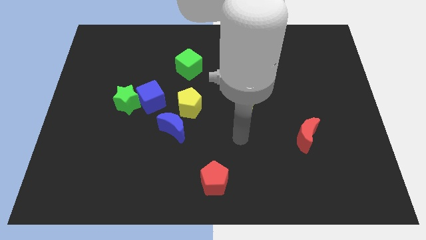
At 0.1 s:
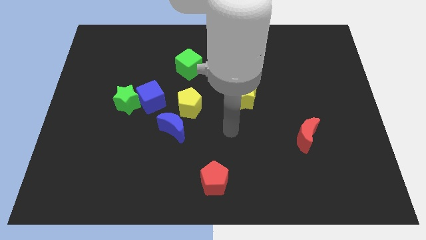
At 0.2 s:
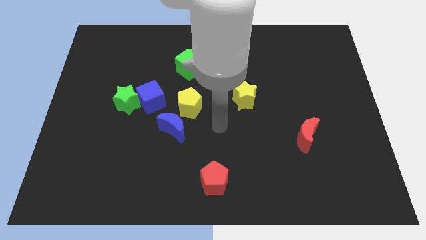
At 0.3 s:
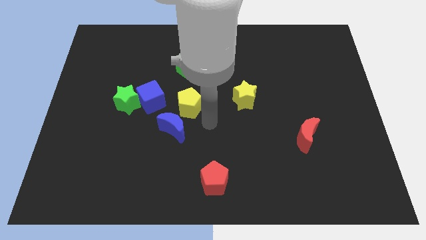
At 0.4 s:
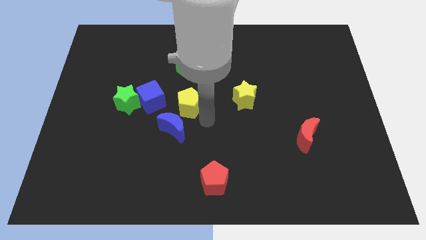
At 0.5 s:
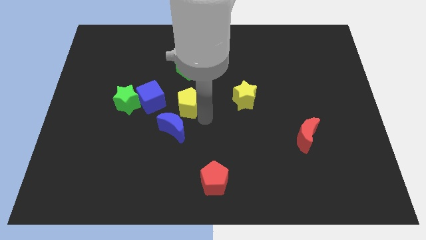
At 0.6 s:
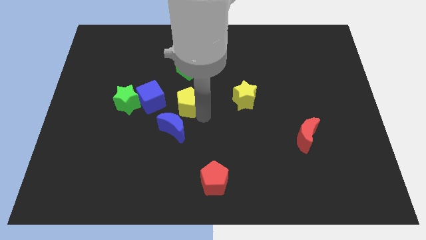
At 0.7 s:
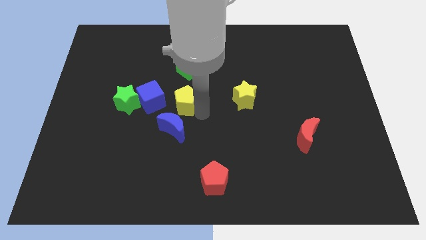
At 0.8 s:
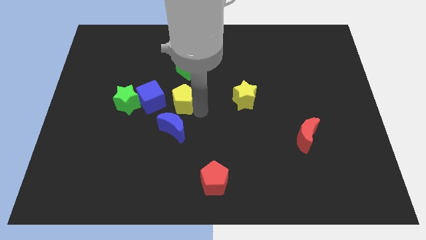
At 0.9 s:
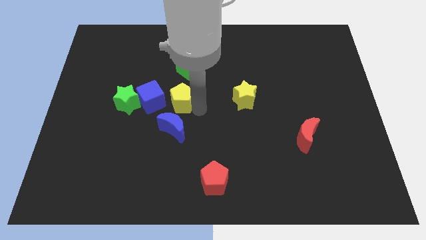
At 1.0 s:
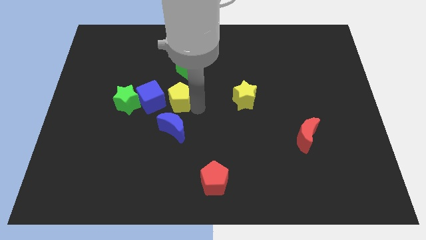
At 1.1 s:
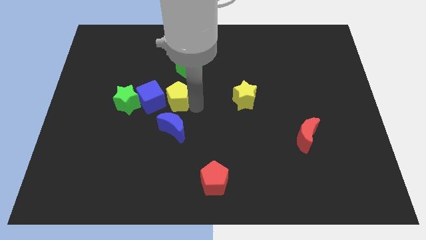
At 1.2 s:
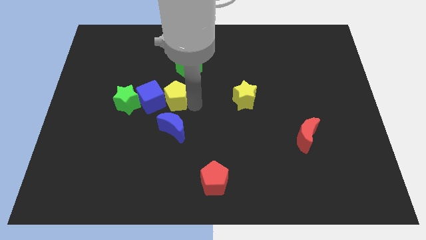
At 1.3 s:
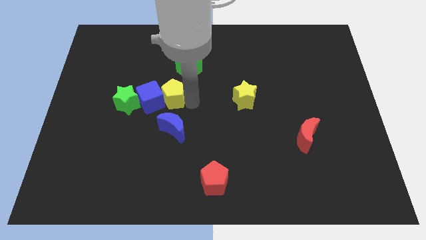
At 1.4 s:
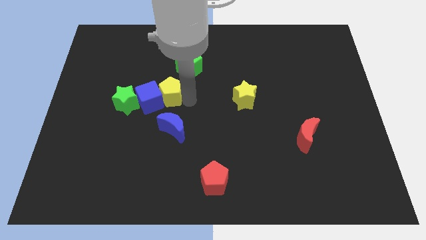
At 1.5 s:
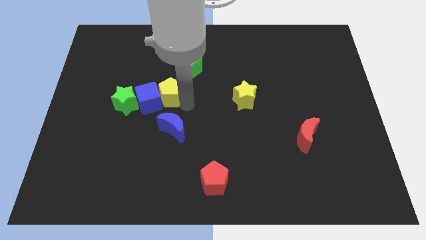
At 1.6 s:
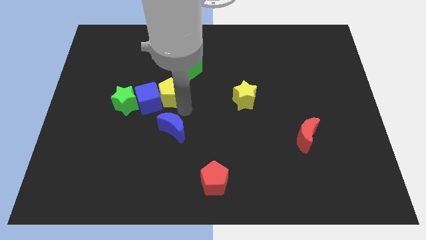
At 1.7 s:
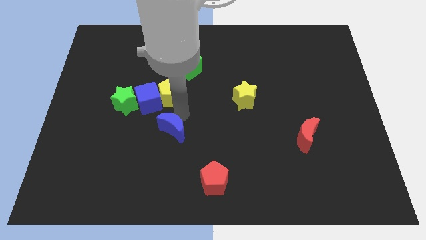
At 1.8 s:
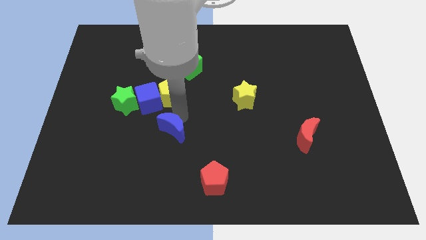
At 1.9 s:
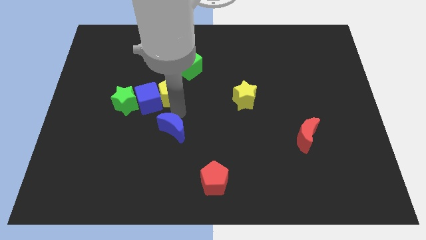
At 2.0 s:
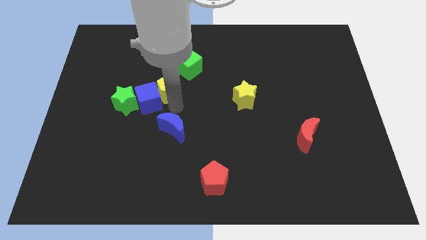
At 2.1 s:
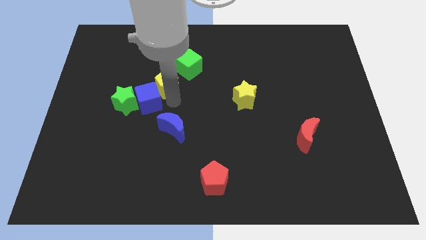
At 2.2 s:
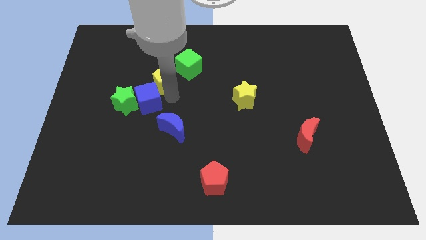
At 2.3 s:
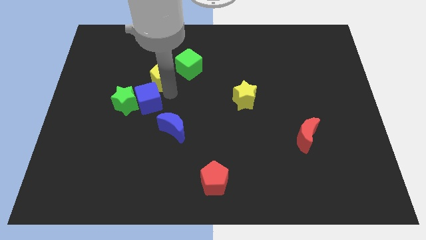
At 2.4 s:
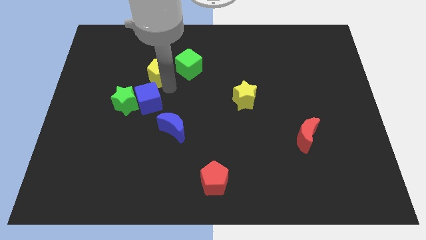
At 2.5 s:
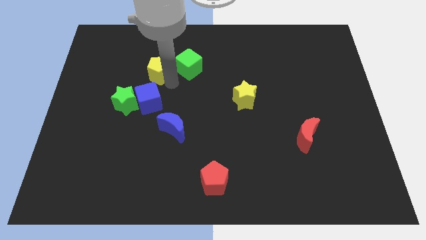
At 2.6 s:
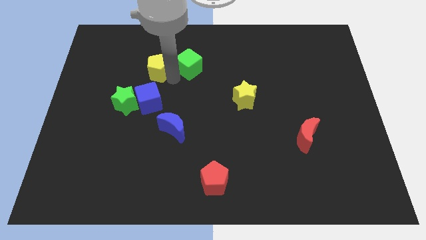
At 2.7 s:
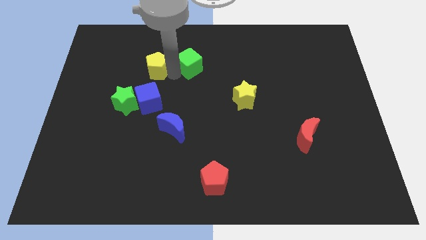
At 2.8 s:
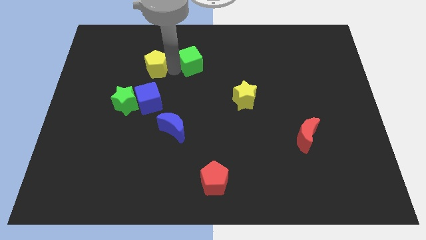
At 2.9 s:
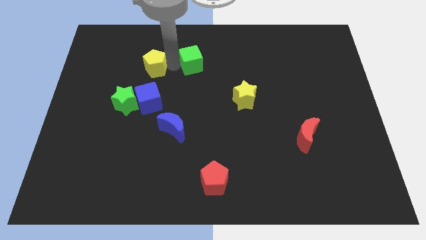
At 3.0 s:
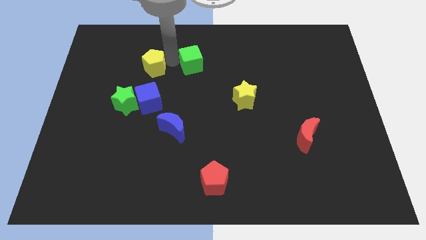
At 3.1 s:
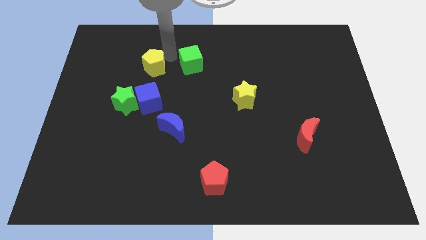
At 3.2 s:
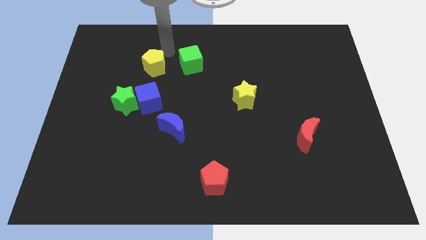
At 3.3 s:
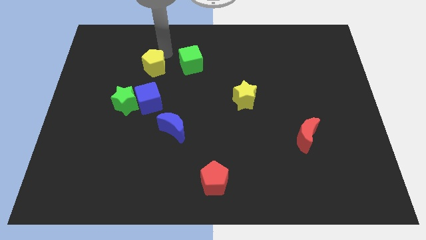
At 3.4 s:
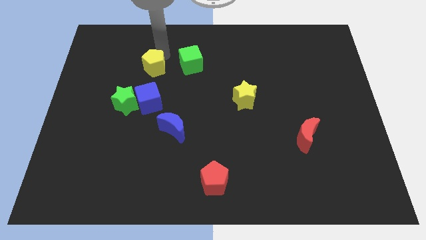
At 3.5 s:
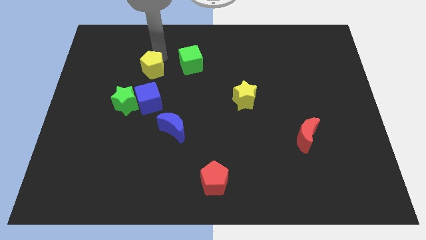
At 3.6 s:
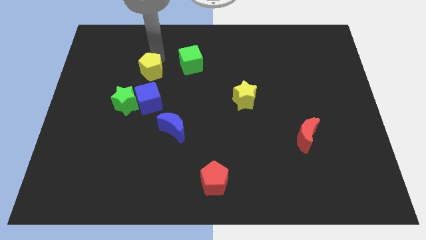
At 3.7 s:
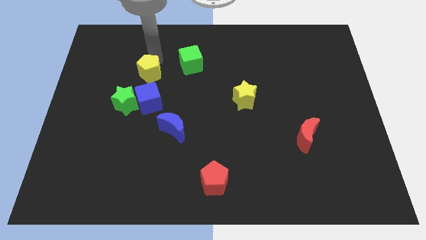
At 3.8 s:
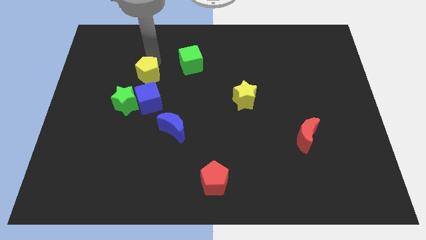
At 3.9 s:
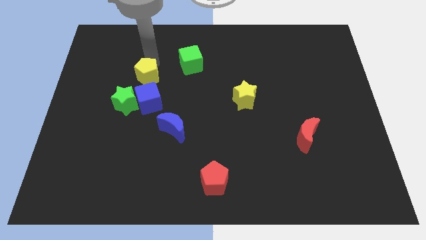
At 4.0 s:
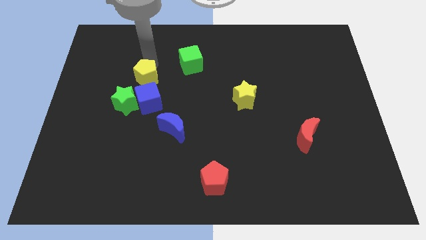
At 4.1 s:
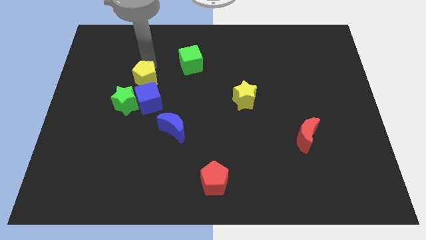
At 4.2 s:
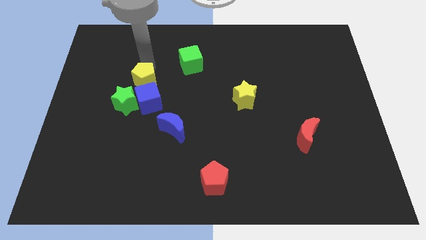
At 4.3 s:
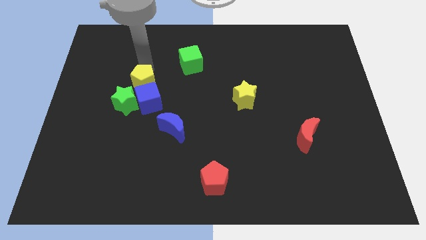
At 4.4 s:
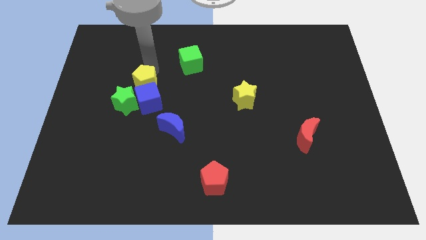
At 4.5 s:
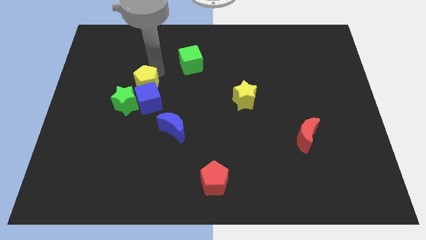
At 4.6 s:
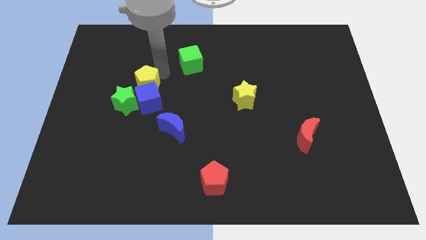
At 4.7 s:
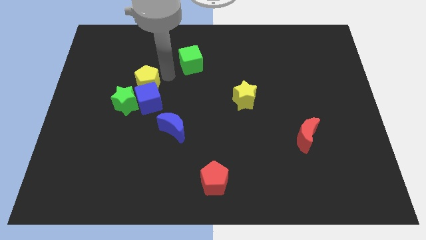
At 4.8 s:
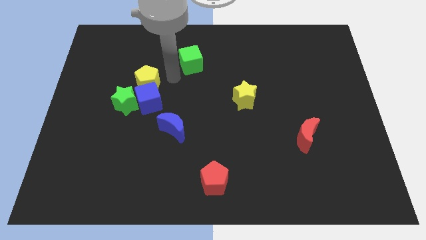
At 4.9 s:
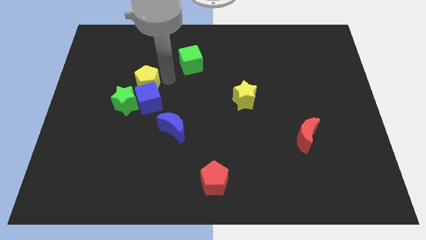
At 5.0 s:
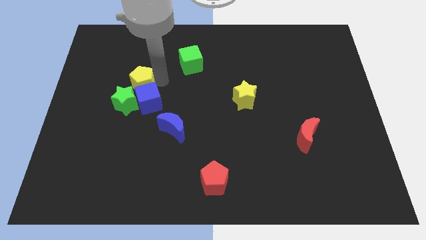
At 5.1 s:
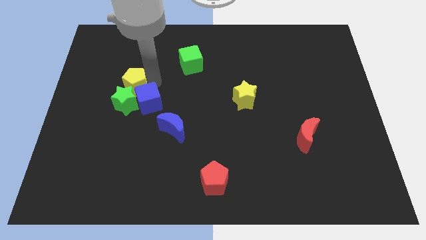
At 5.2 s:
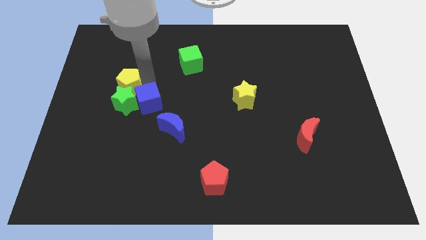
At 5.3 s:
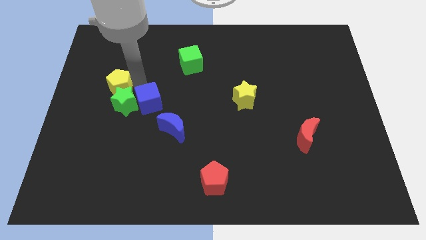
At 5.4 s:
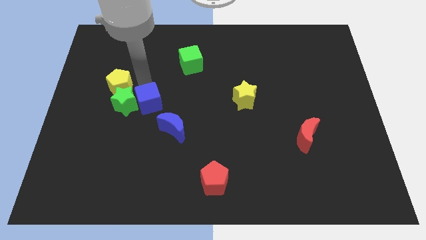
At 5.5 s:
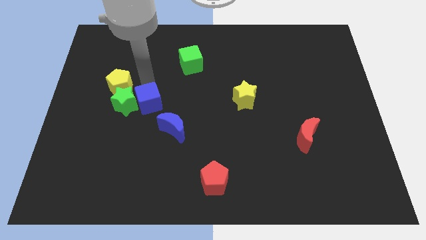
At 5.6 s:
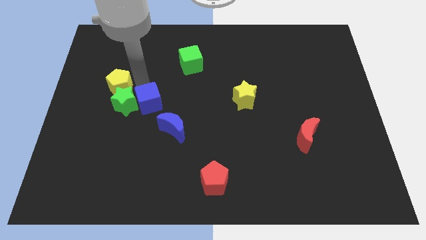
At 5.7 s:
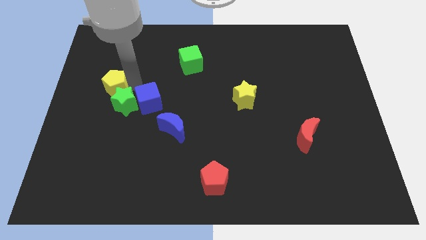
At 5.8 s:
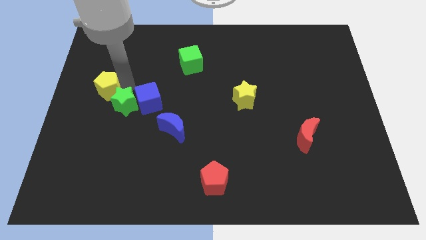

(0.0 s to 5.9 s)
push the yellow pentagon to the left side

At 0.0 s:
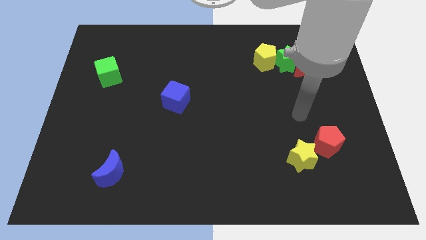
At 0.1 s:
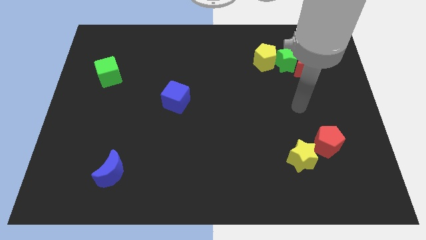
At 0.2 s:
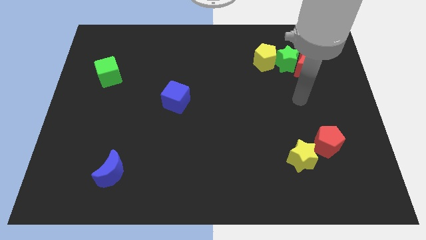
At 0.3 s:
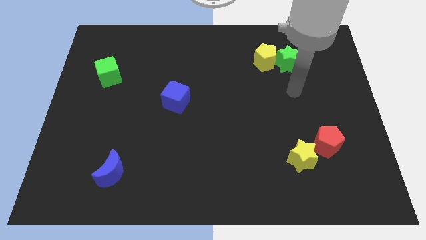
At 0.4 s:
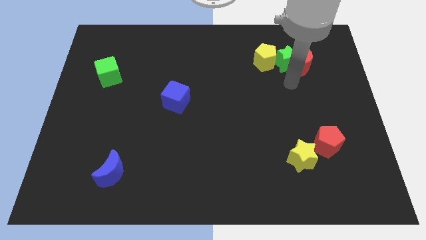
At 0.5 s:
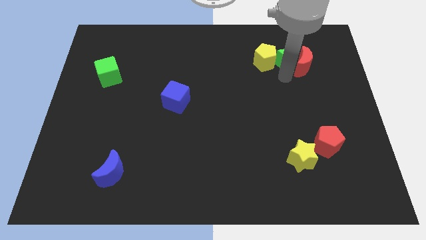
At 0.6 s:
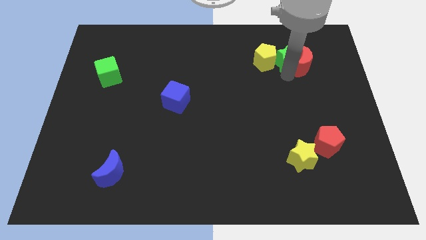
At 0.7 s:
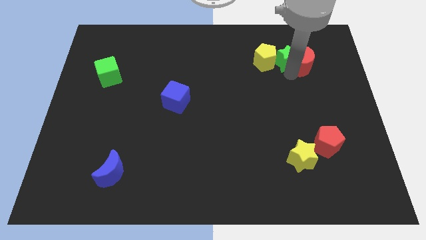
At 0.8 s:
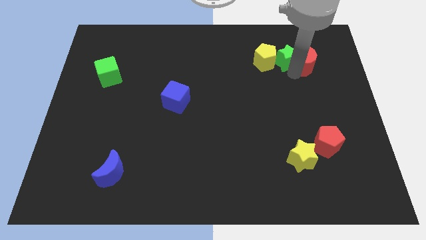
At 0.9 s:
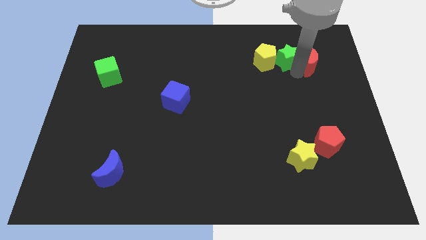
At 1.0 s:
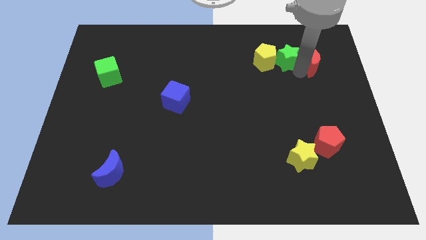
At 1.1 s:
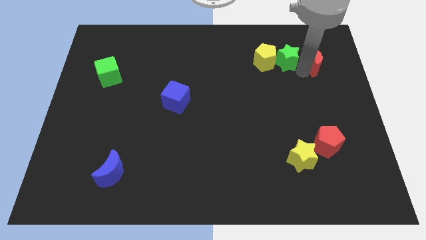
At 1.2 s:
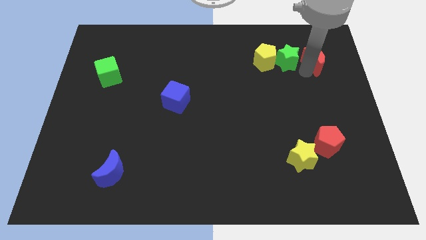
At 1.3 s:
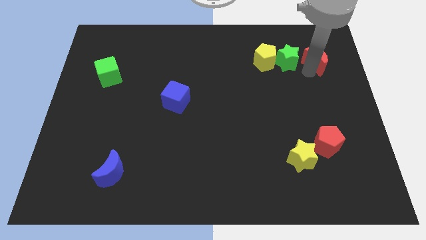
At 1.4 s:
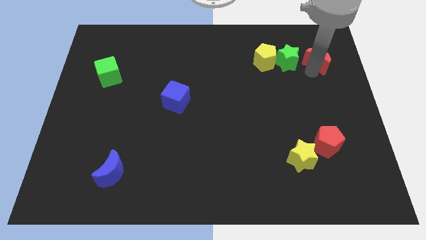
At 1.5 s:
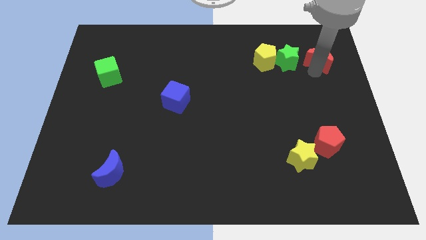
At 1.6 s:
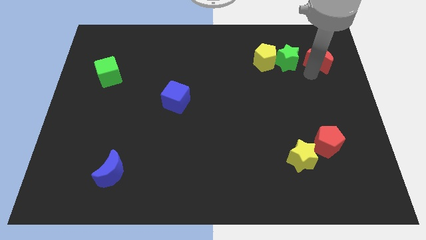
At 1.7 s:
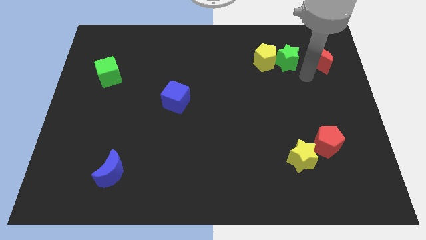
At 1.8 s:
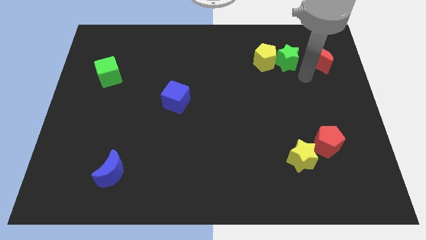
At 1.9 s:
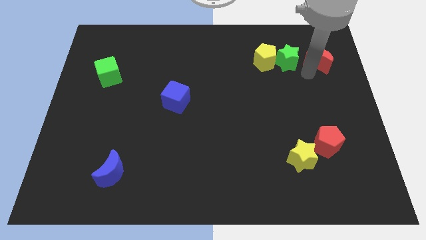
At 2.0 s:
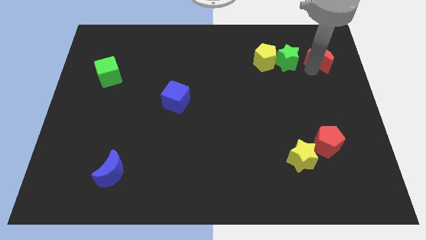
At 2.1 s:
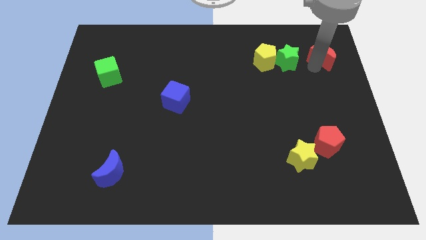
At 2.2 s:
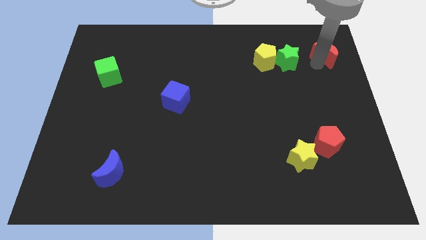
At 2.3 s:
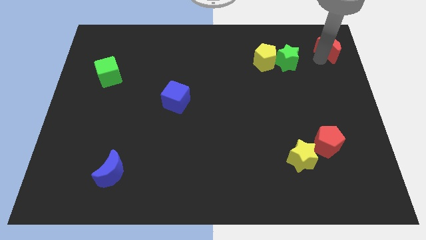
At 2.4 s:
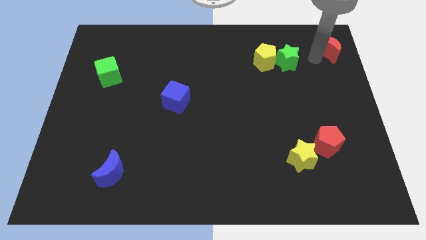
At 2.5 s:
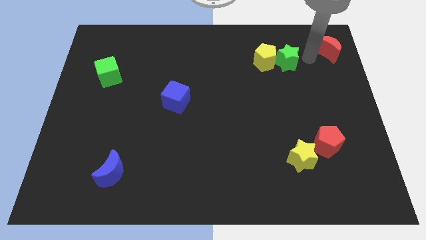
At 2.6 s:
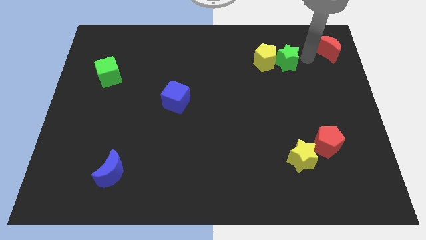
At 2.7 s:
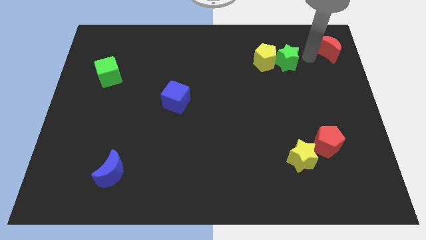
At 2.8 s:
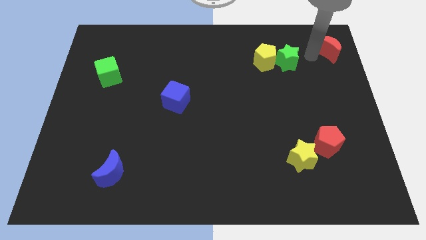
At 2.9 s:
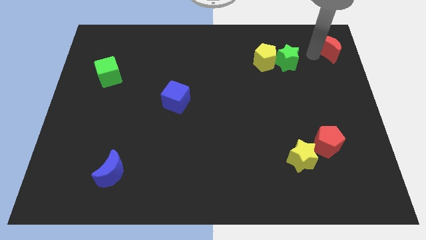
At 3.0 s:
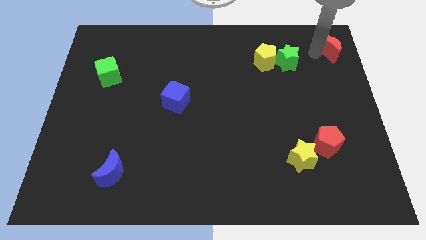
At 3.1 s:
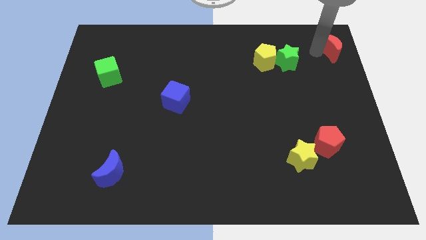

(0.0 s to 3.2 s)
move the red moon to the top right of the board
